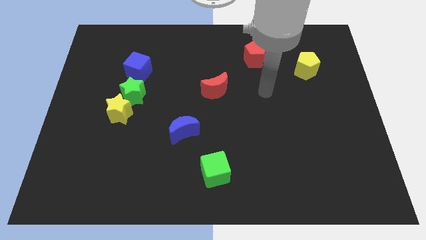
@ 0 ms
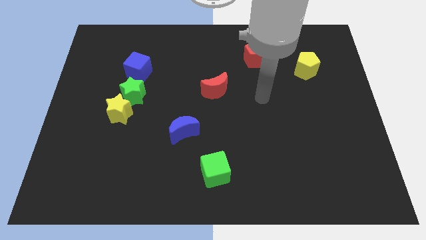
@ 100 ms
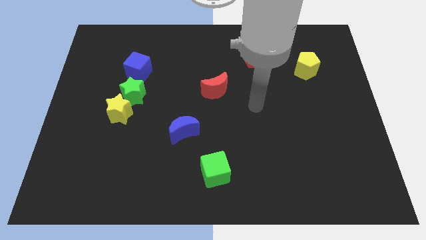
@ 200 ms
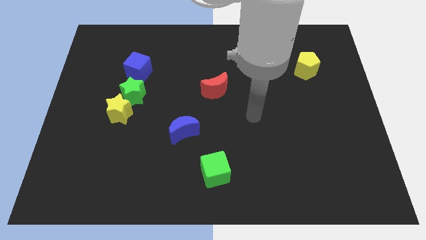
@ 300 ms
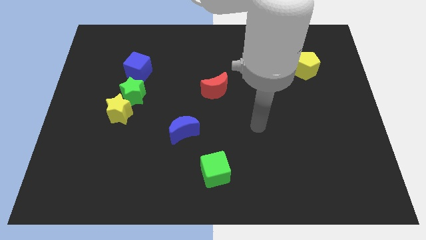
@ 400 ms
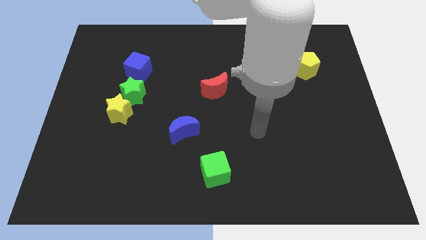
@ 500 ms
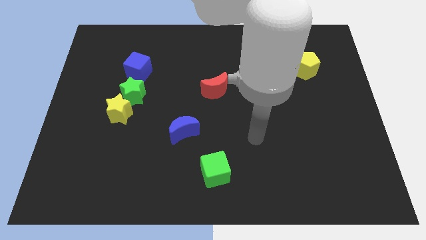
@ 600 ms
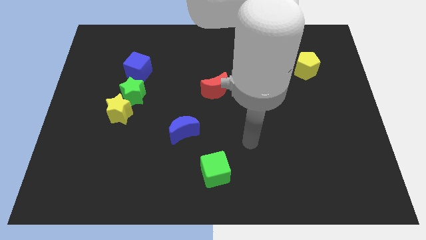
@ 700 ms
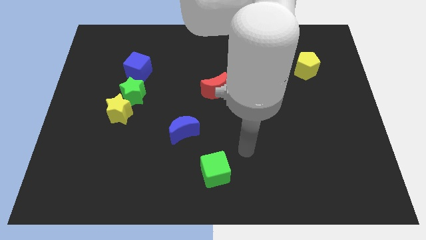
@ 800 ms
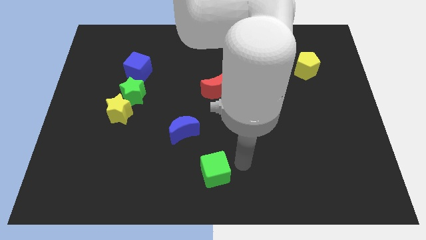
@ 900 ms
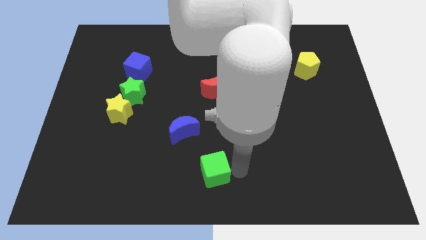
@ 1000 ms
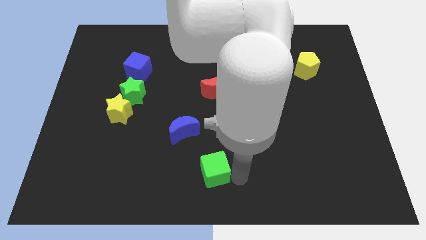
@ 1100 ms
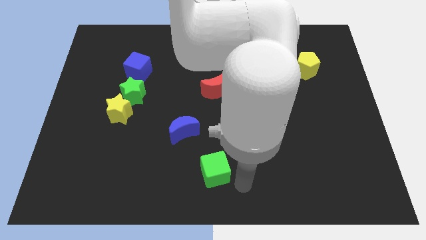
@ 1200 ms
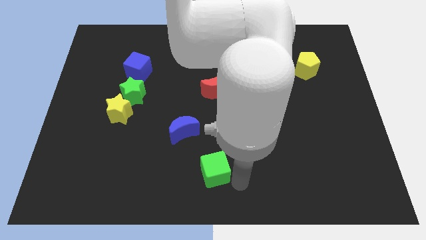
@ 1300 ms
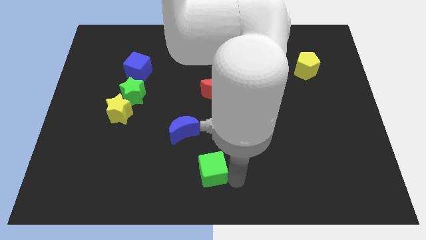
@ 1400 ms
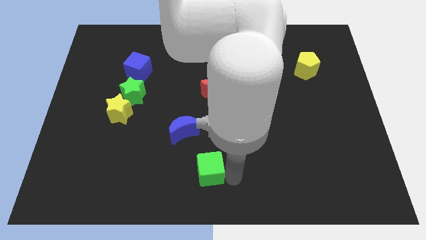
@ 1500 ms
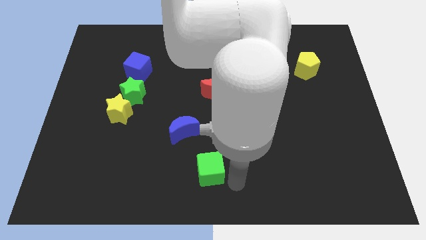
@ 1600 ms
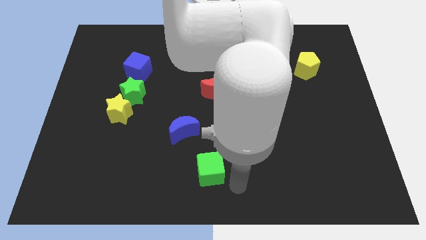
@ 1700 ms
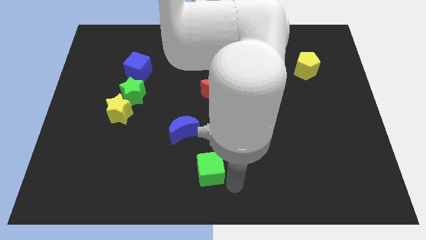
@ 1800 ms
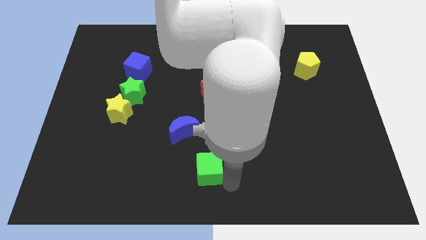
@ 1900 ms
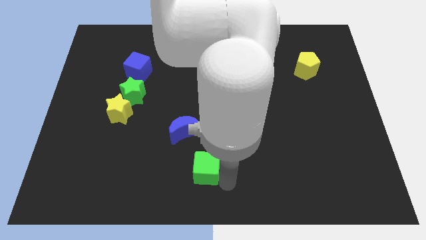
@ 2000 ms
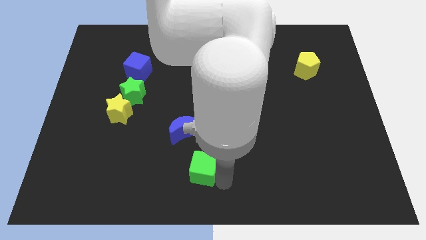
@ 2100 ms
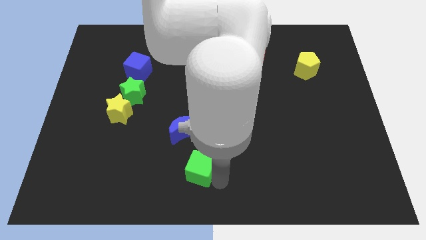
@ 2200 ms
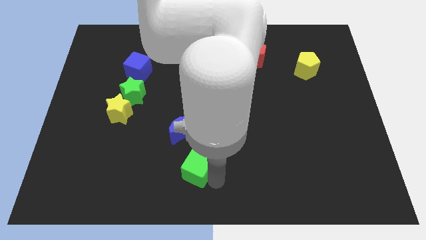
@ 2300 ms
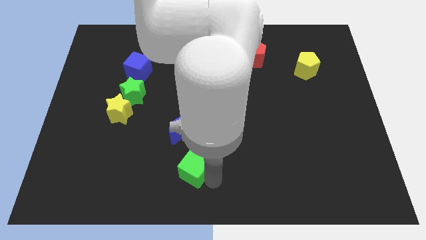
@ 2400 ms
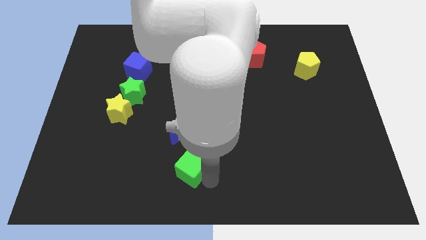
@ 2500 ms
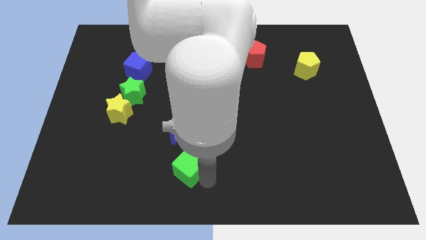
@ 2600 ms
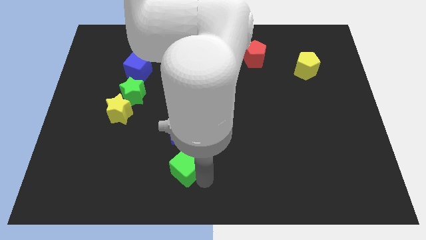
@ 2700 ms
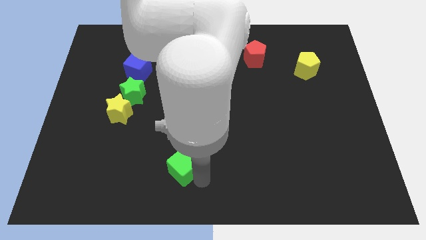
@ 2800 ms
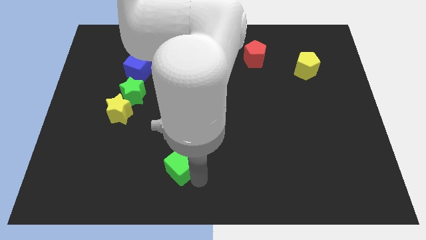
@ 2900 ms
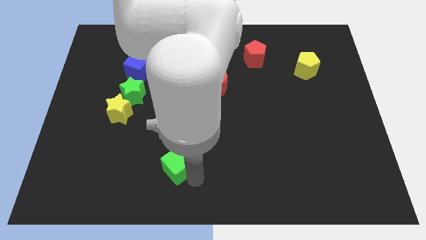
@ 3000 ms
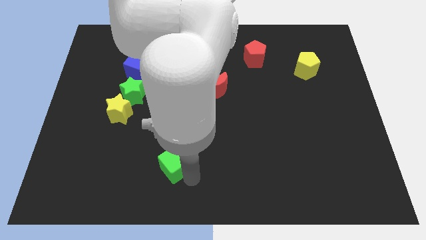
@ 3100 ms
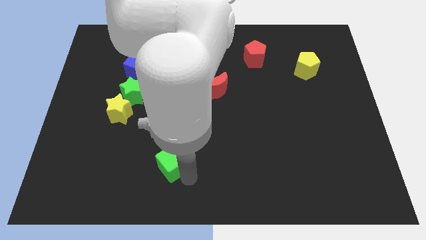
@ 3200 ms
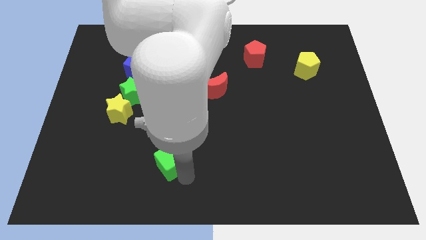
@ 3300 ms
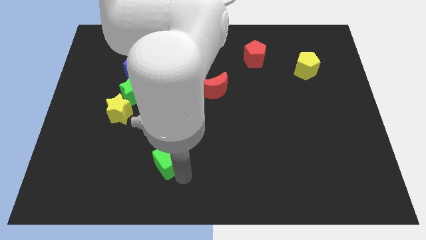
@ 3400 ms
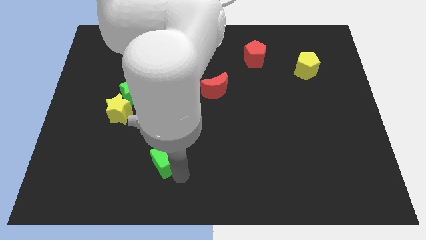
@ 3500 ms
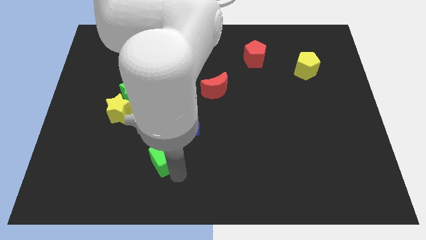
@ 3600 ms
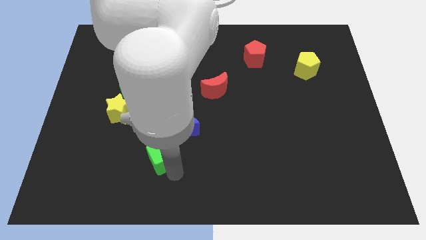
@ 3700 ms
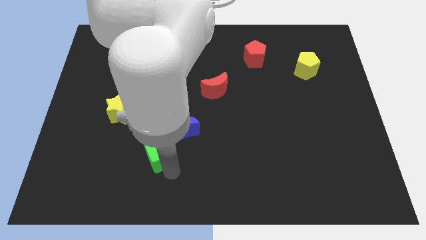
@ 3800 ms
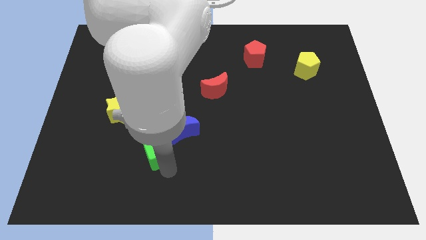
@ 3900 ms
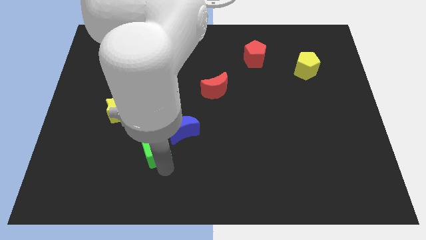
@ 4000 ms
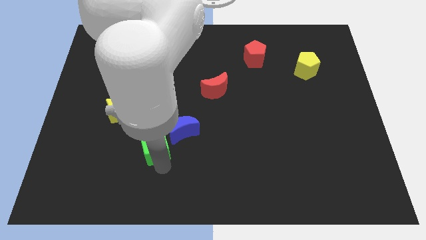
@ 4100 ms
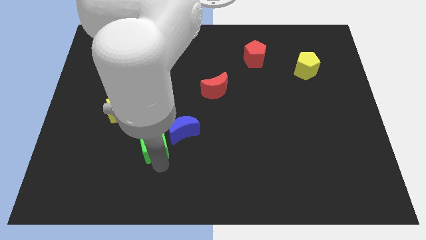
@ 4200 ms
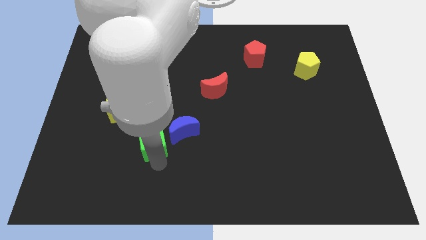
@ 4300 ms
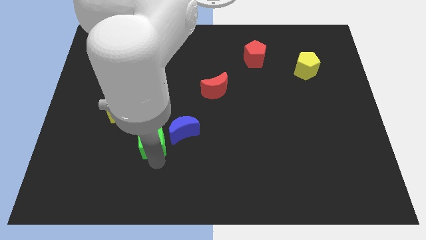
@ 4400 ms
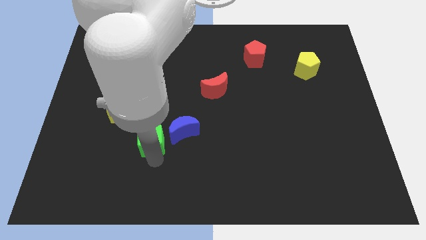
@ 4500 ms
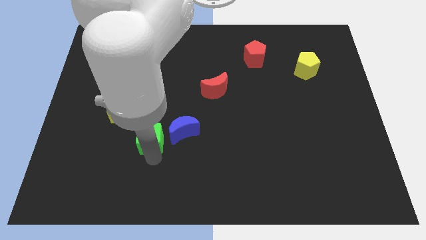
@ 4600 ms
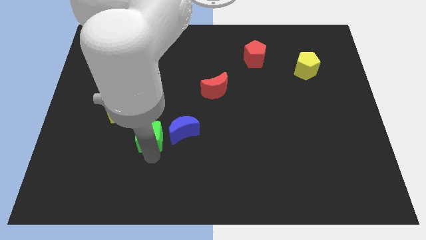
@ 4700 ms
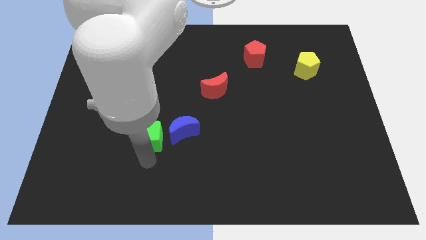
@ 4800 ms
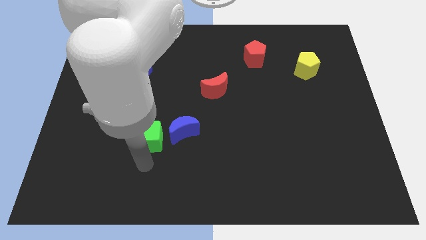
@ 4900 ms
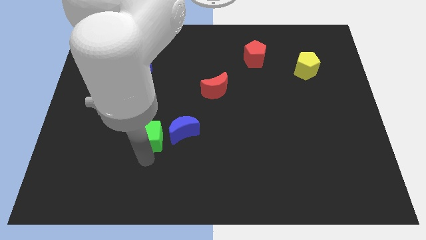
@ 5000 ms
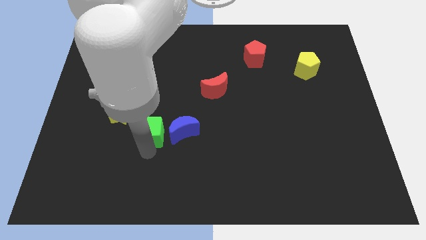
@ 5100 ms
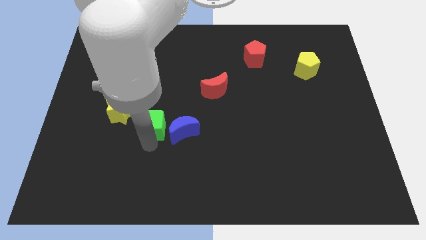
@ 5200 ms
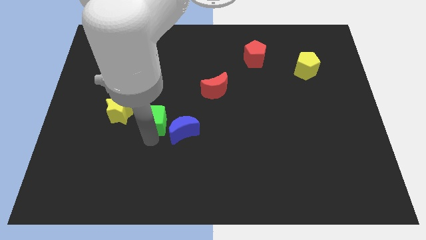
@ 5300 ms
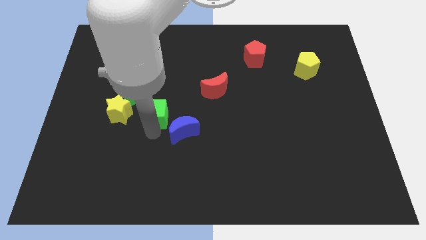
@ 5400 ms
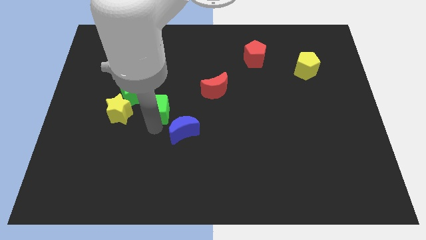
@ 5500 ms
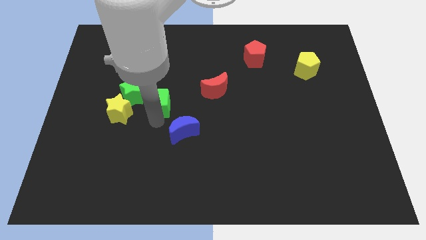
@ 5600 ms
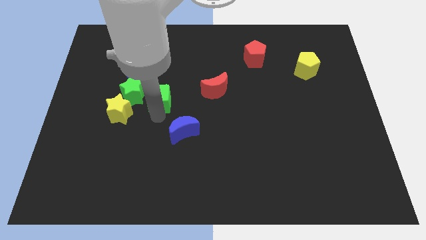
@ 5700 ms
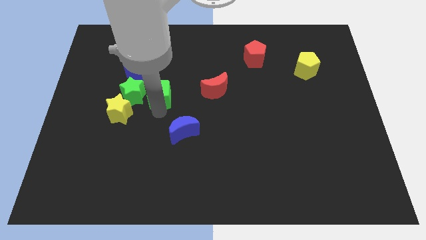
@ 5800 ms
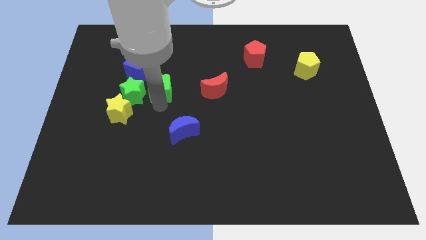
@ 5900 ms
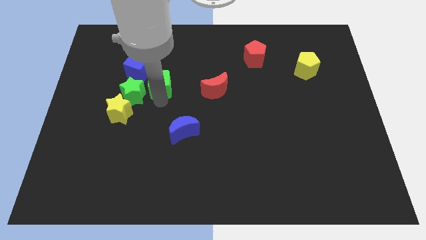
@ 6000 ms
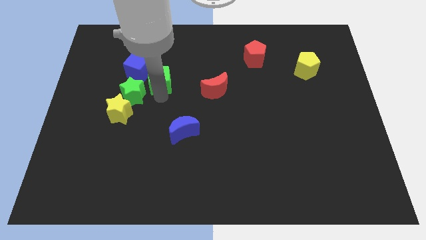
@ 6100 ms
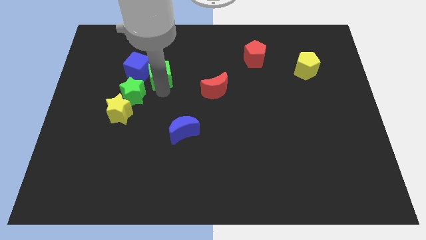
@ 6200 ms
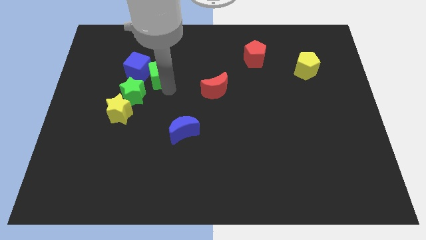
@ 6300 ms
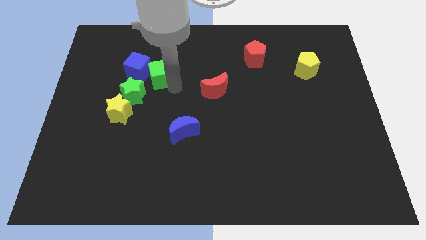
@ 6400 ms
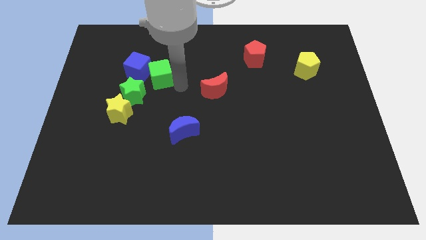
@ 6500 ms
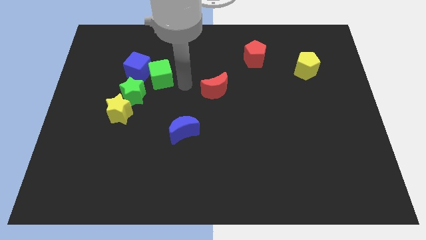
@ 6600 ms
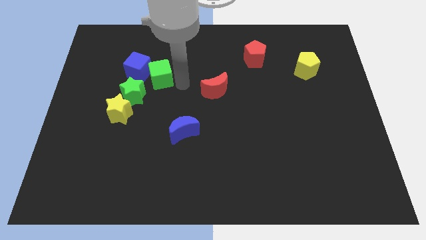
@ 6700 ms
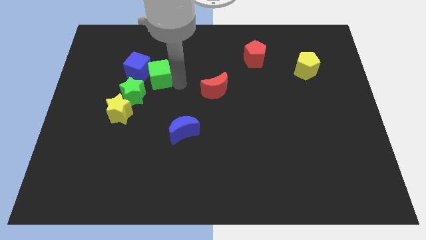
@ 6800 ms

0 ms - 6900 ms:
put the green cube next to the blue cube

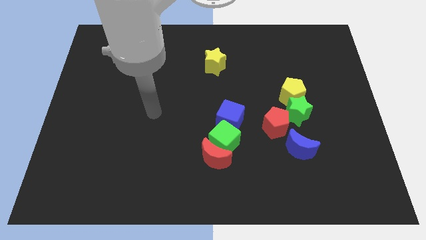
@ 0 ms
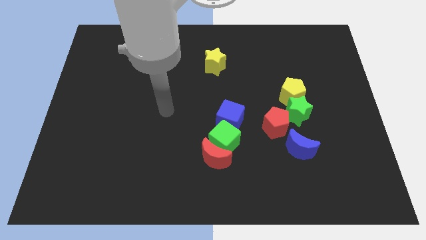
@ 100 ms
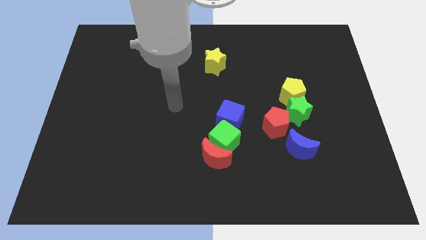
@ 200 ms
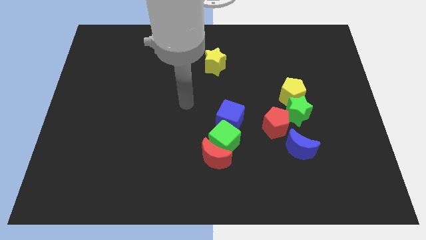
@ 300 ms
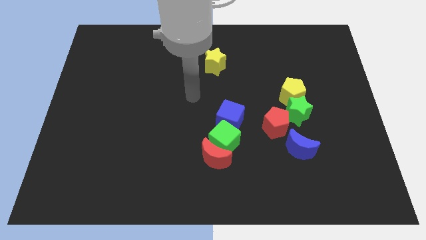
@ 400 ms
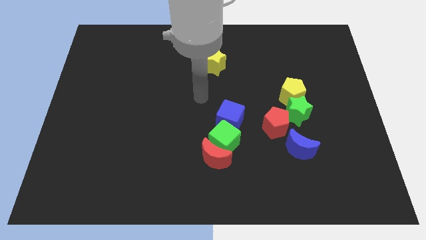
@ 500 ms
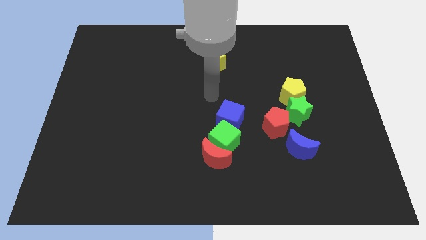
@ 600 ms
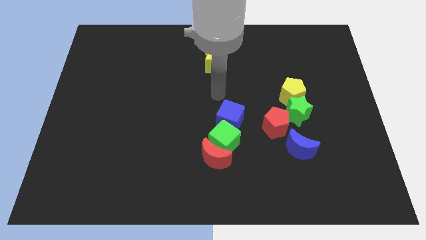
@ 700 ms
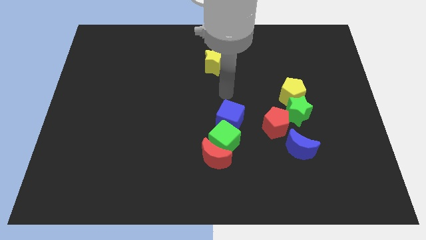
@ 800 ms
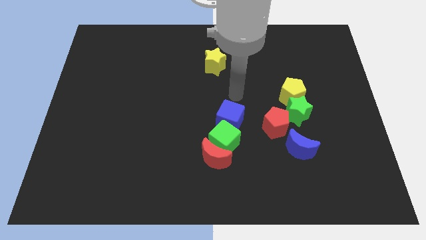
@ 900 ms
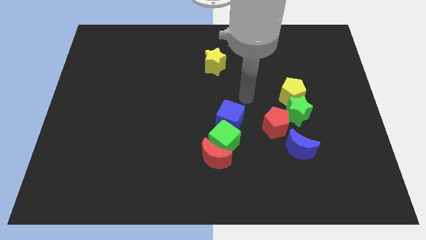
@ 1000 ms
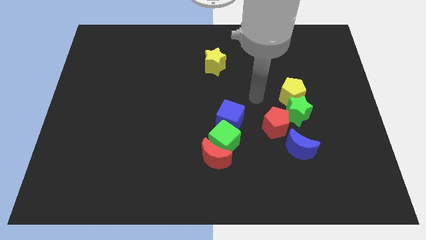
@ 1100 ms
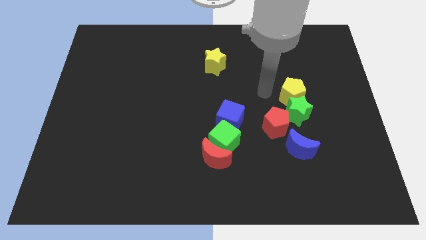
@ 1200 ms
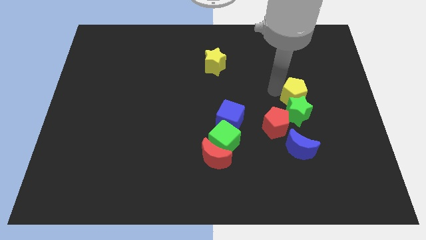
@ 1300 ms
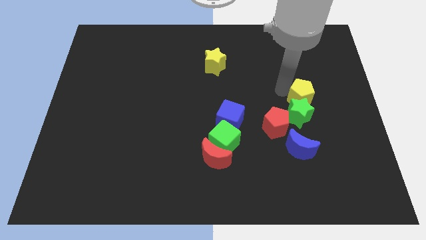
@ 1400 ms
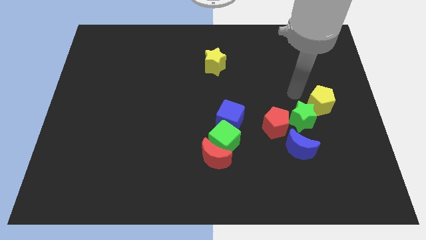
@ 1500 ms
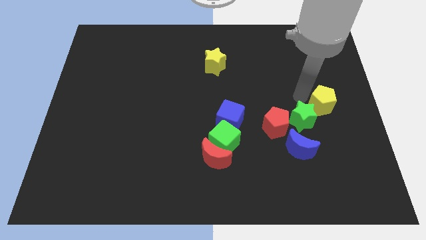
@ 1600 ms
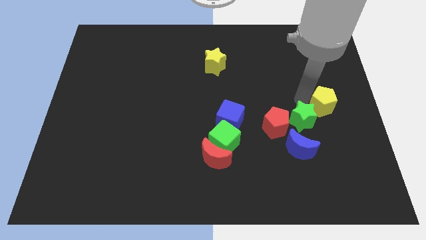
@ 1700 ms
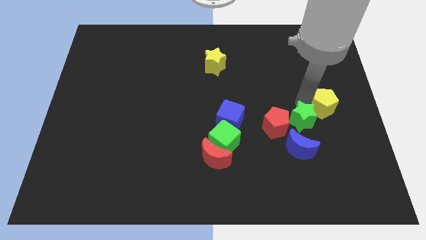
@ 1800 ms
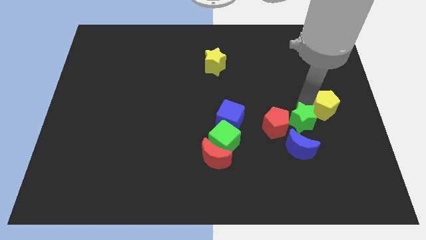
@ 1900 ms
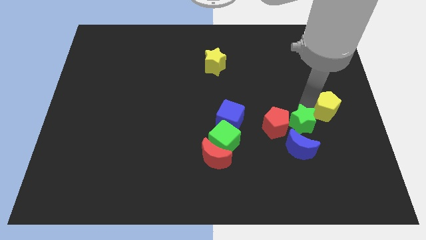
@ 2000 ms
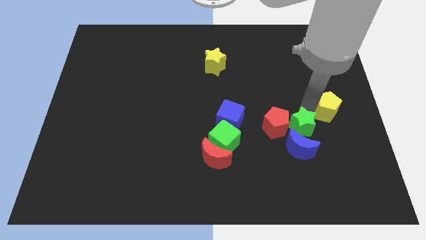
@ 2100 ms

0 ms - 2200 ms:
push the green star to the blue moon
